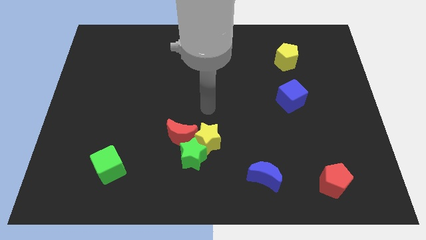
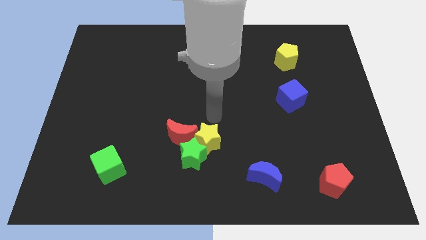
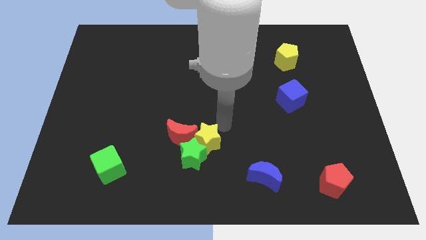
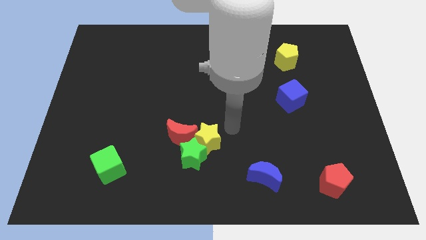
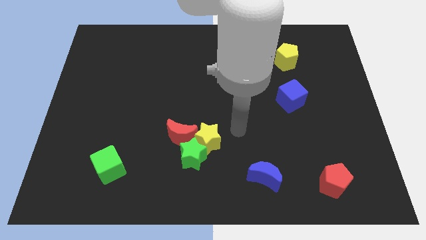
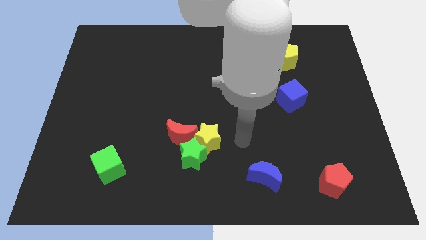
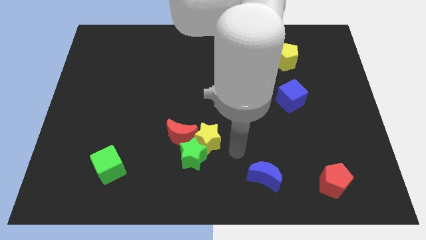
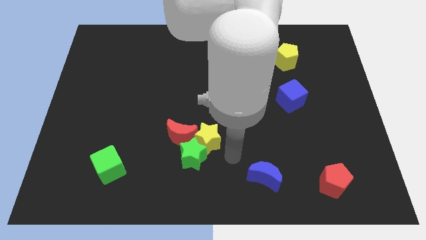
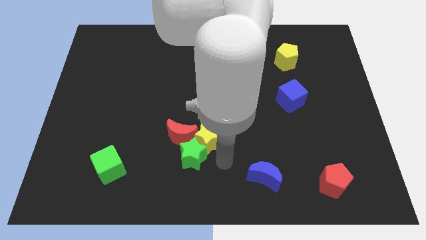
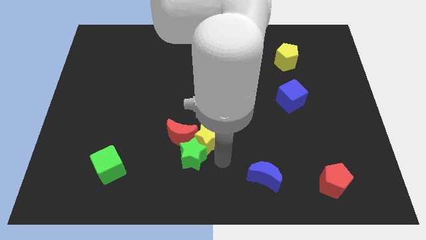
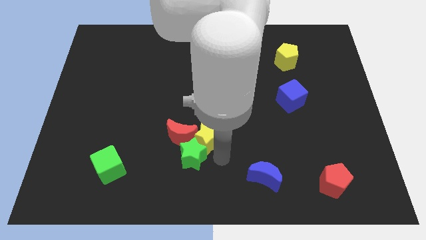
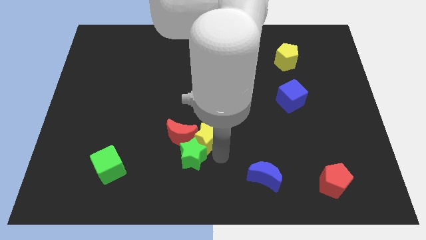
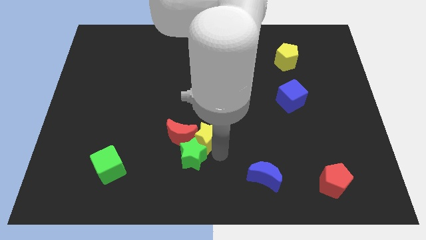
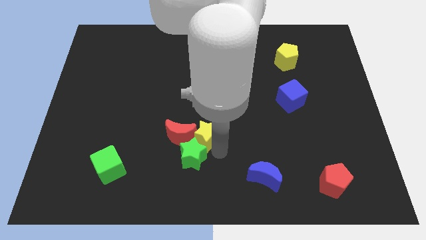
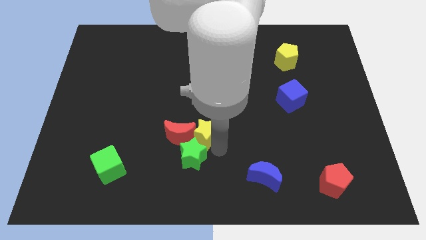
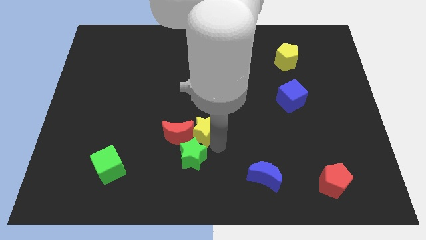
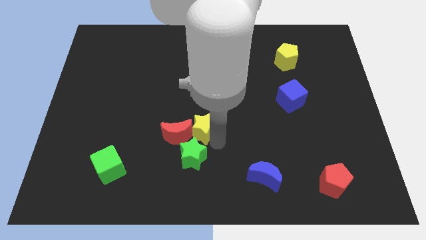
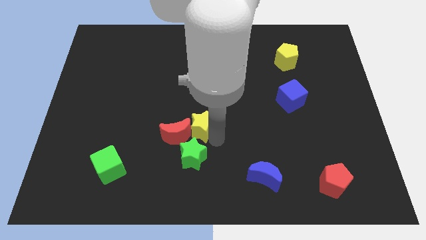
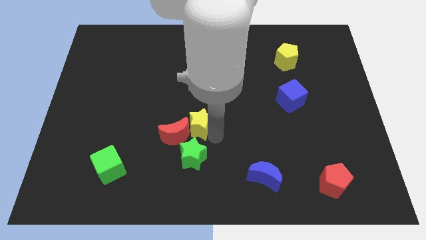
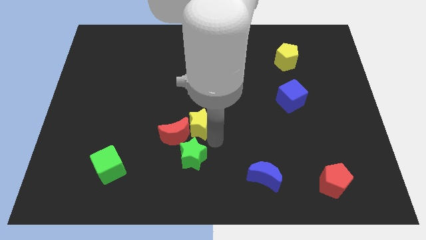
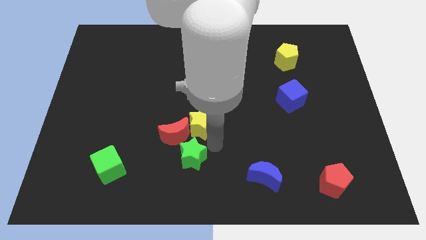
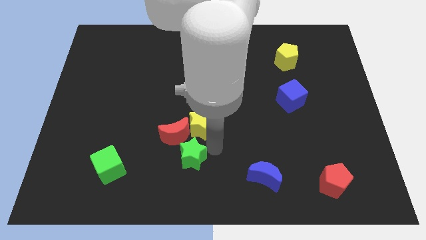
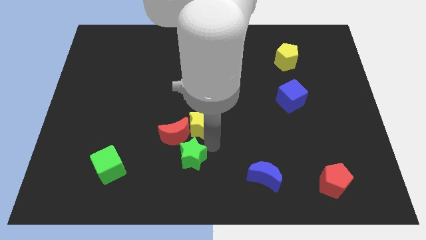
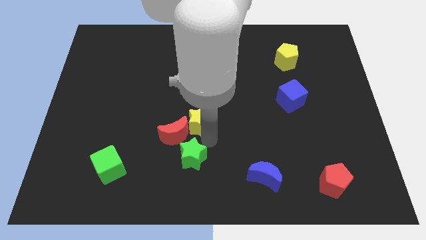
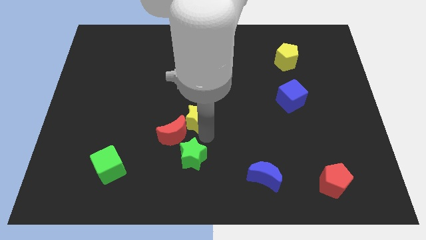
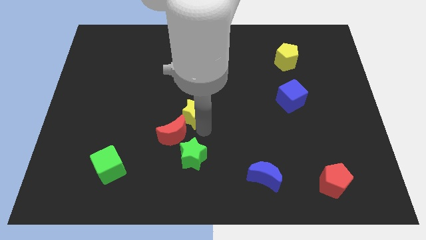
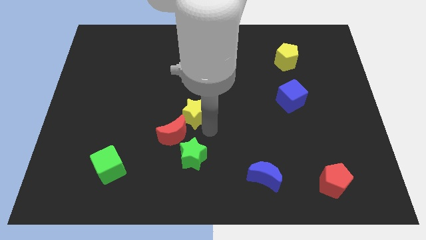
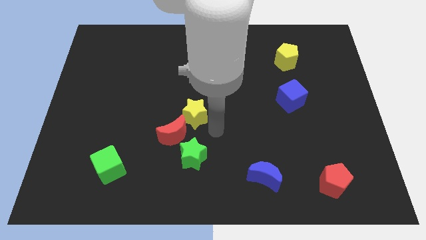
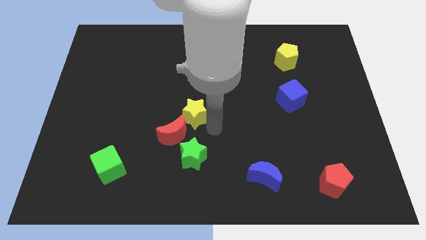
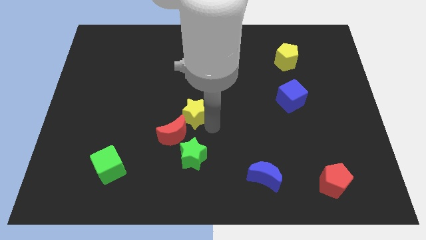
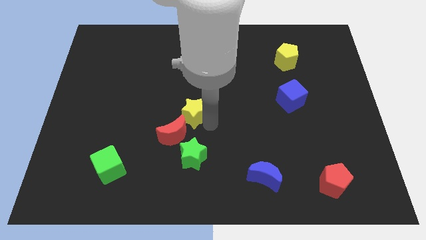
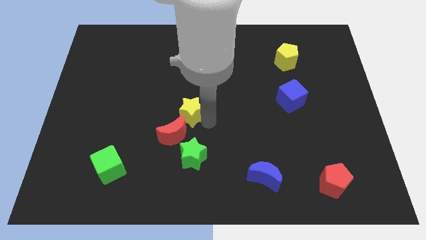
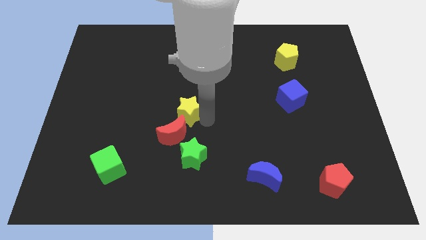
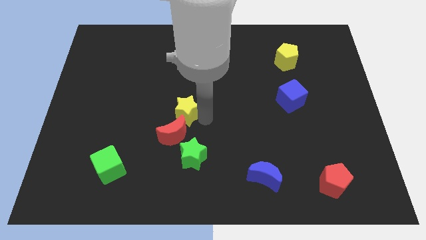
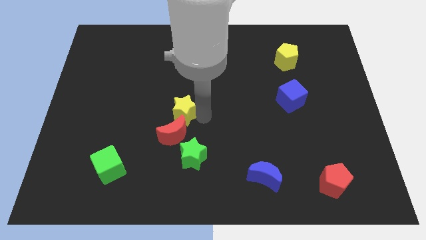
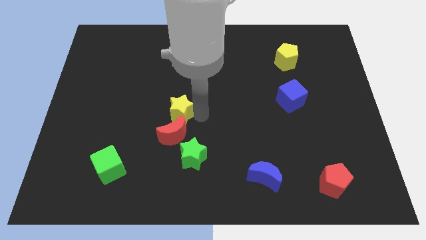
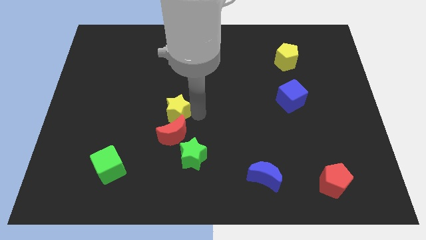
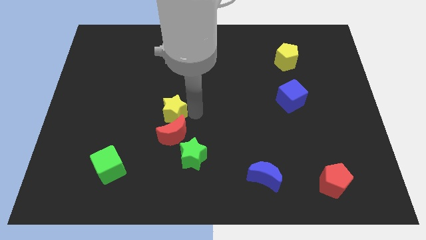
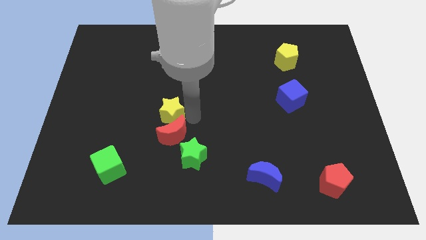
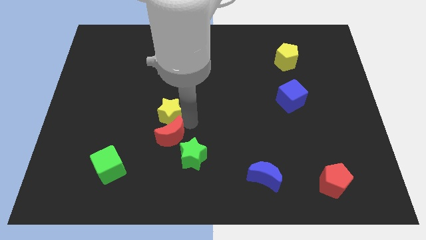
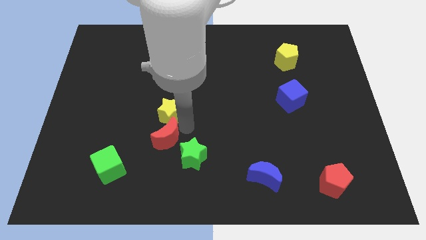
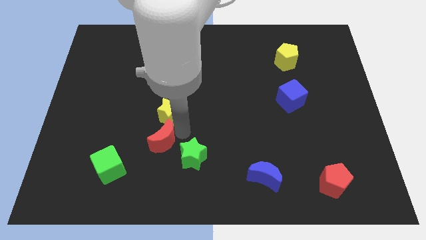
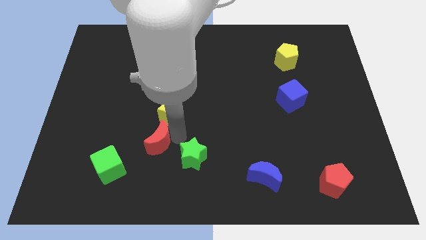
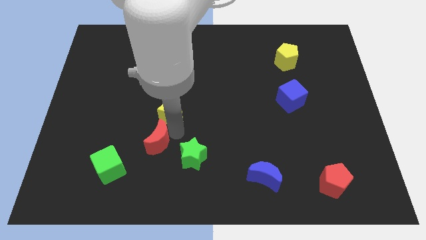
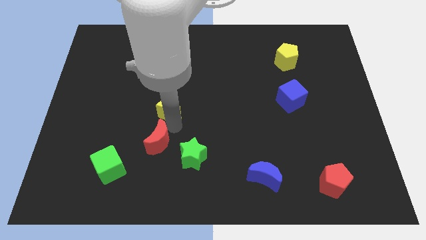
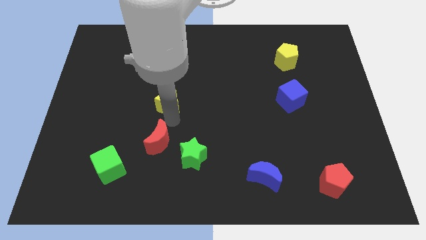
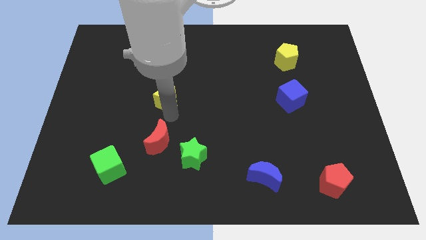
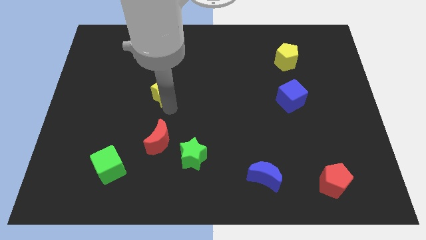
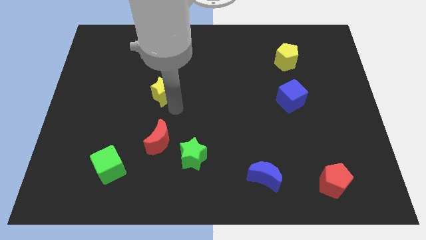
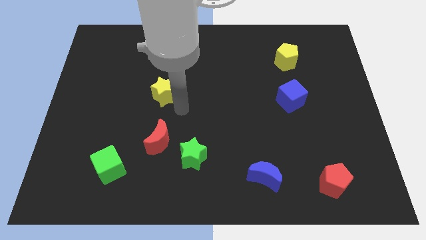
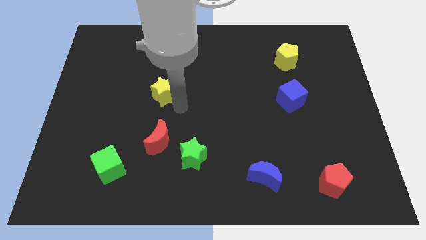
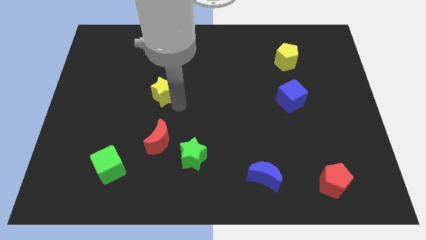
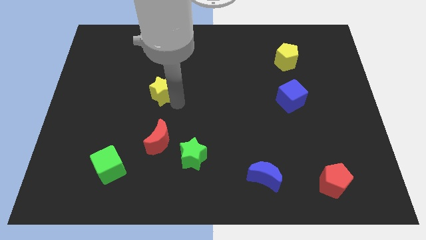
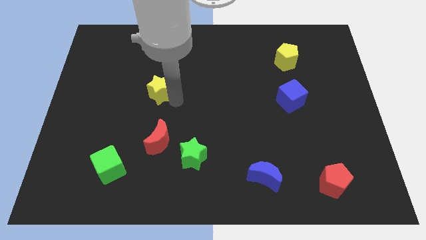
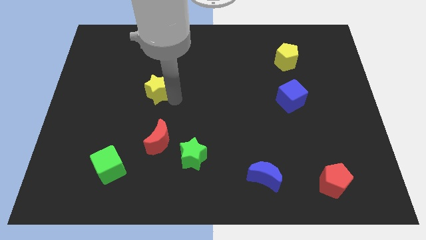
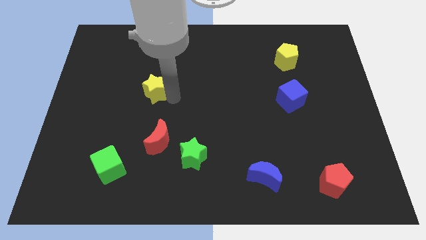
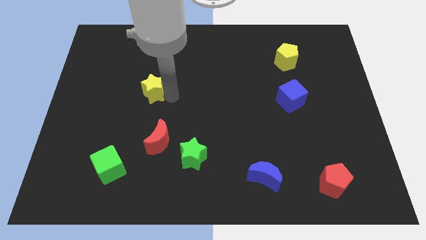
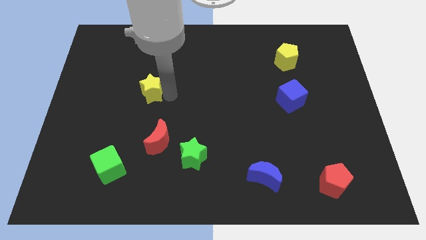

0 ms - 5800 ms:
push the yellow star diagonally up and left

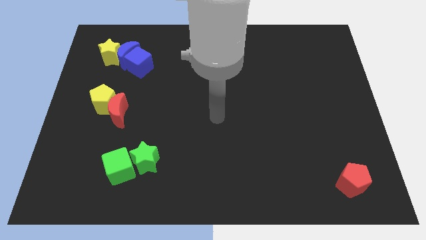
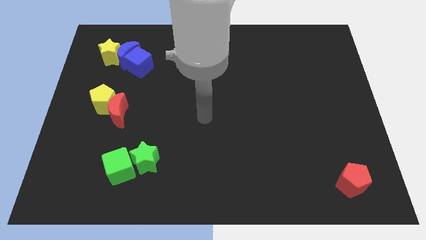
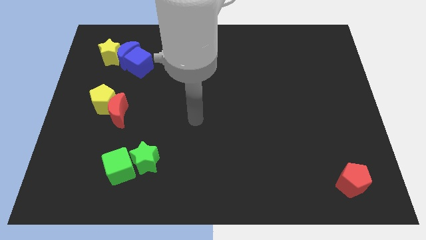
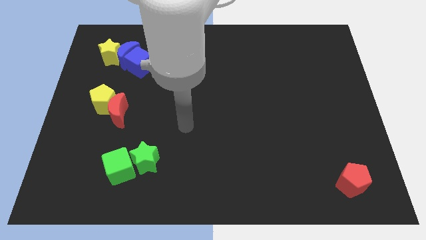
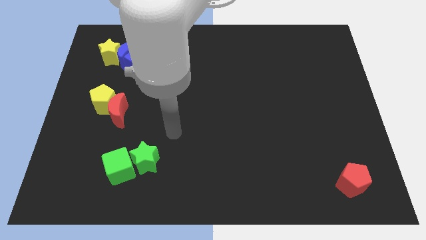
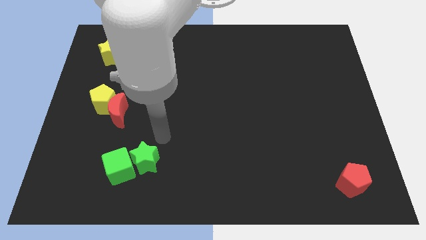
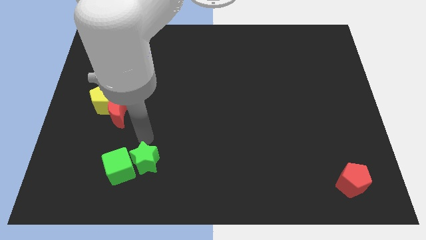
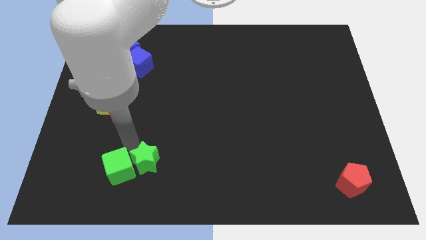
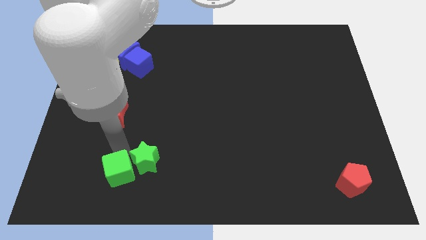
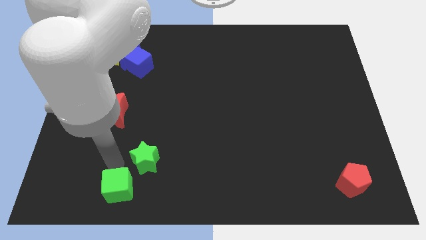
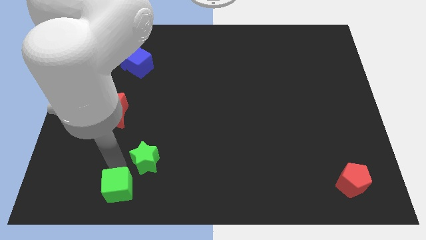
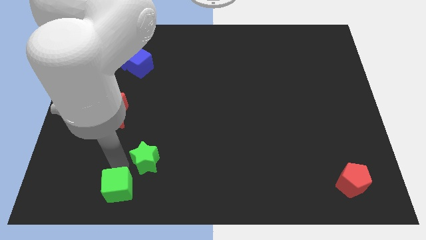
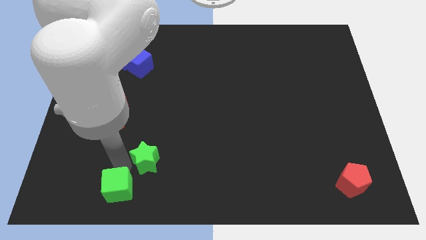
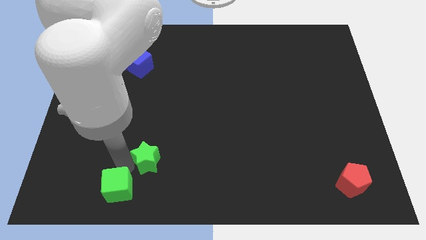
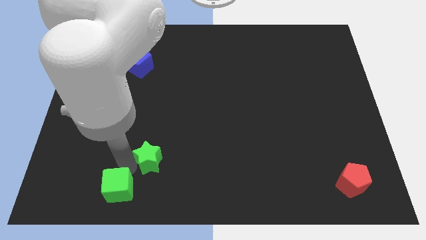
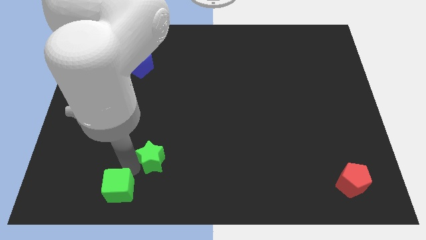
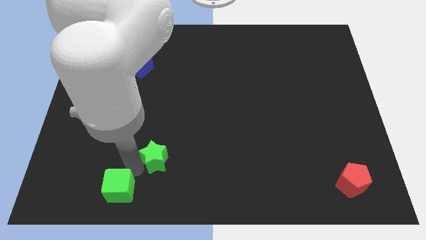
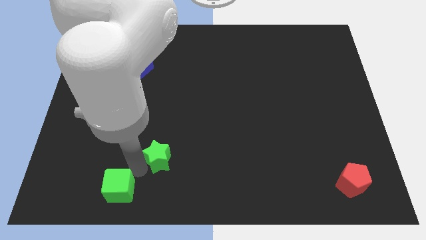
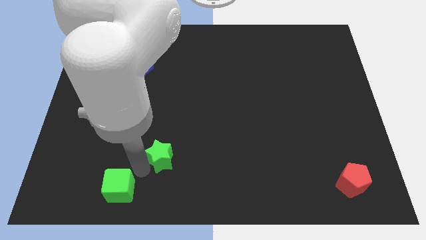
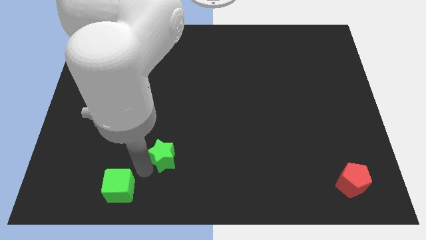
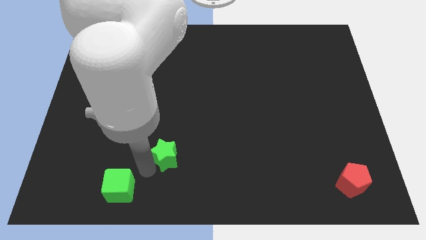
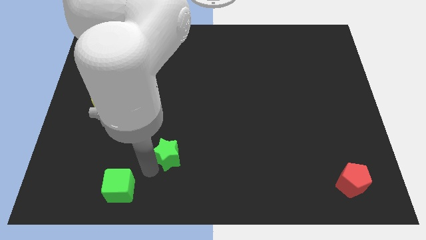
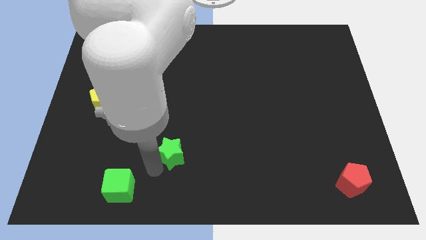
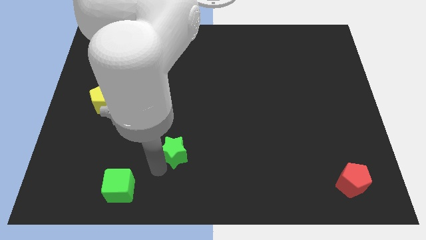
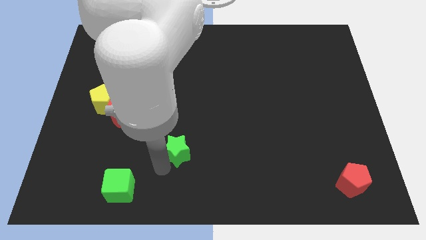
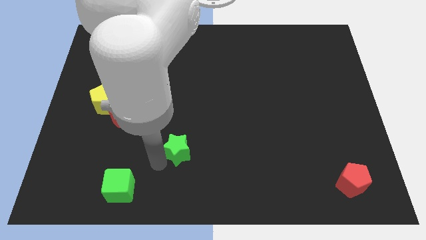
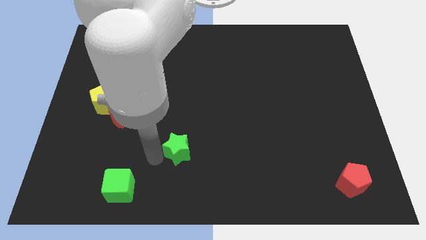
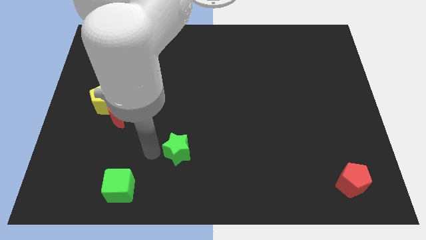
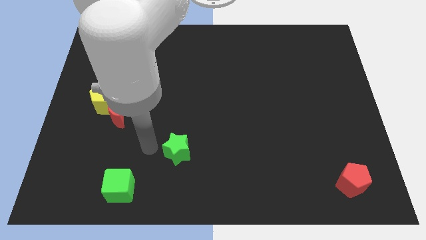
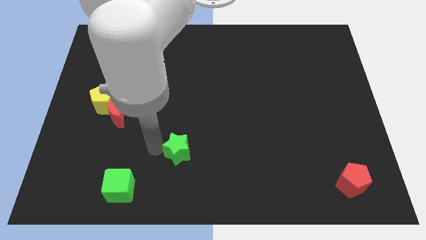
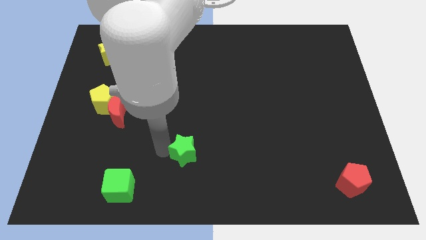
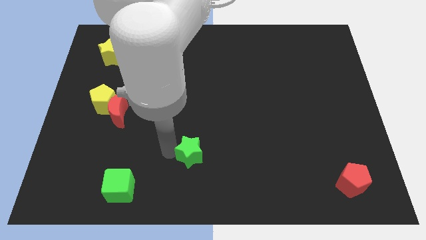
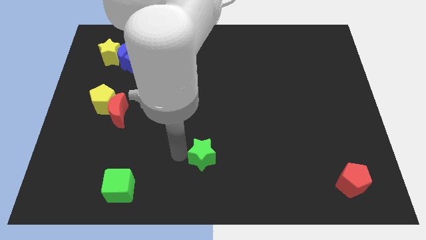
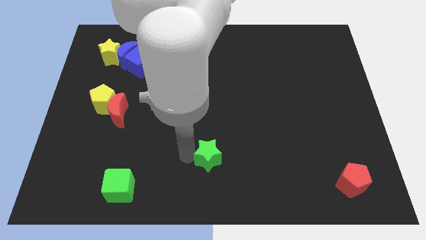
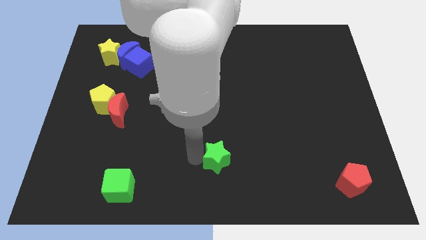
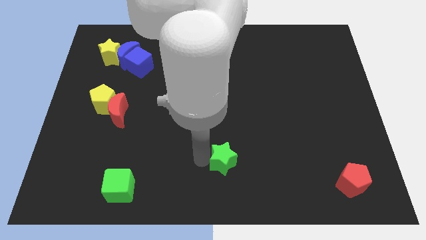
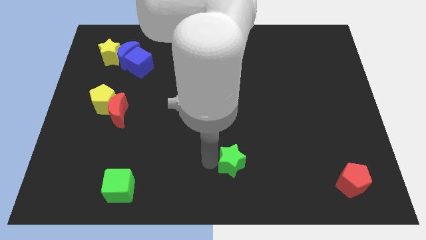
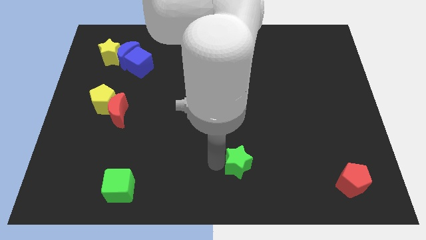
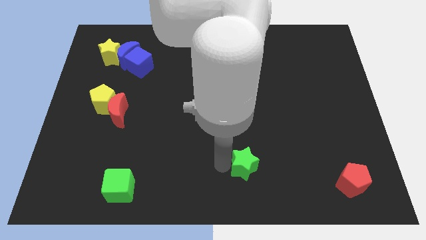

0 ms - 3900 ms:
push the green star right
